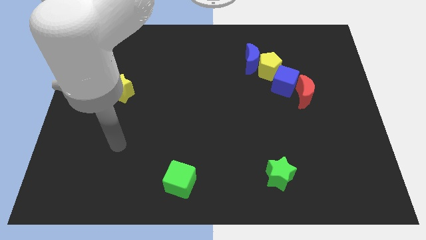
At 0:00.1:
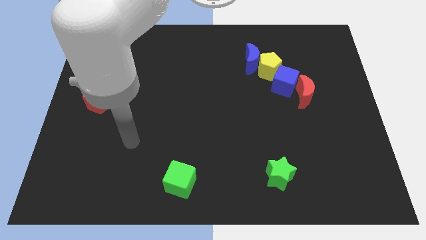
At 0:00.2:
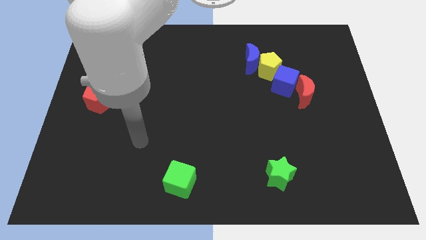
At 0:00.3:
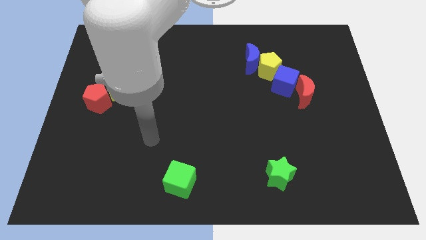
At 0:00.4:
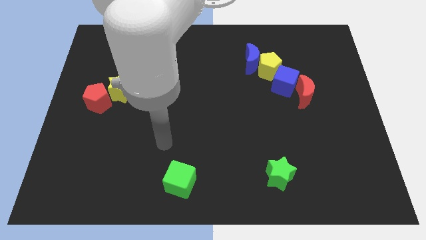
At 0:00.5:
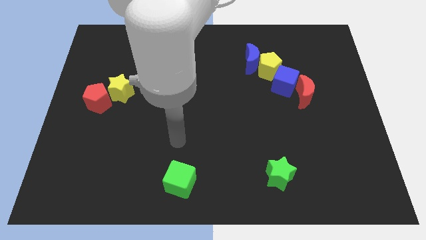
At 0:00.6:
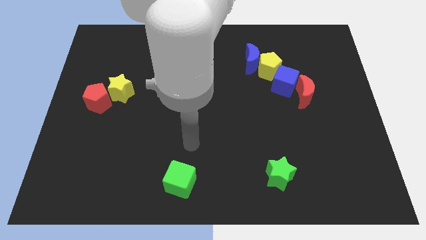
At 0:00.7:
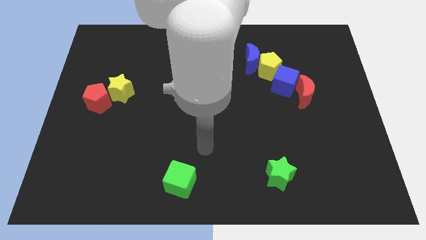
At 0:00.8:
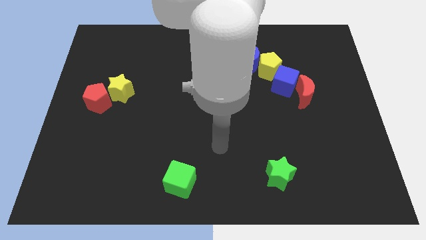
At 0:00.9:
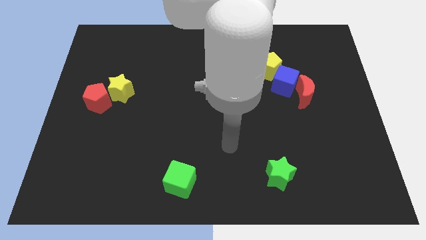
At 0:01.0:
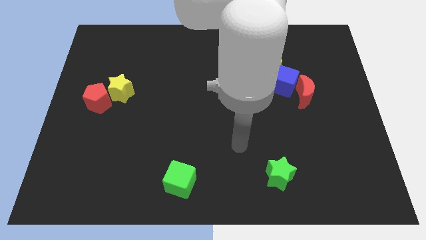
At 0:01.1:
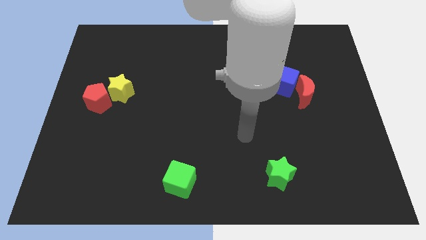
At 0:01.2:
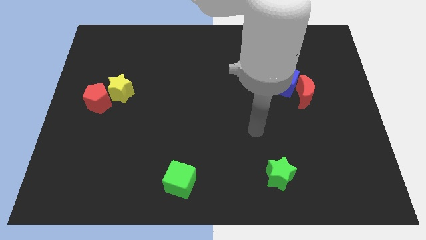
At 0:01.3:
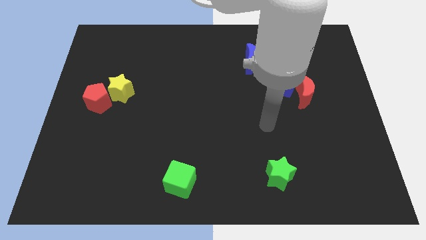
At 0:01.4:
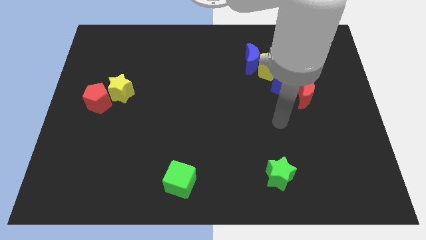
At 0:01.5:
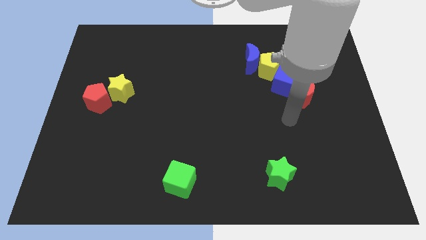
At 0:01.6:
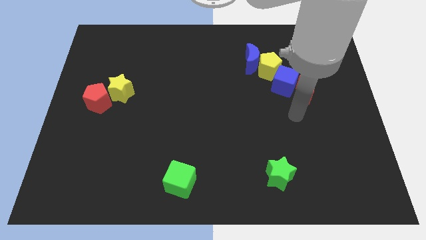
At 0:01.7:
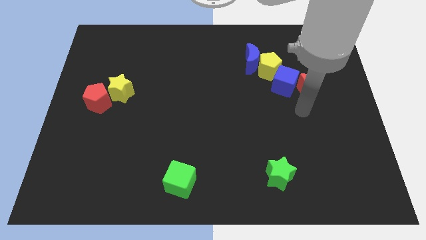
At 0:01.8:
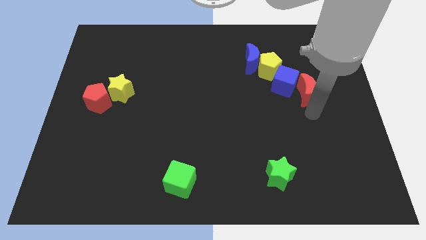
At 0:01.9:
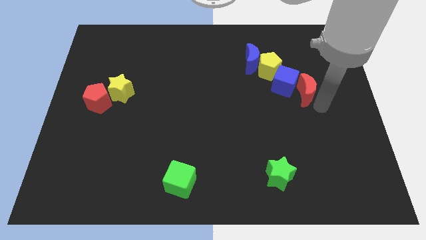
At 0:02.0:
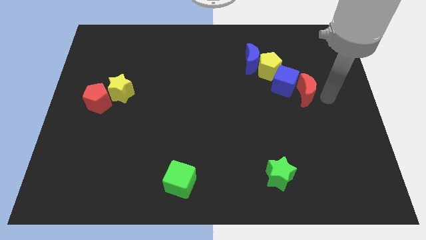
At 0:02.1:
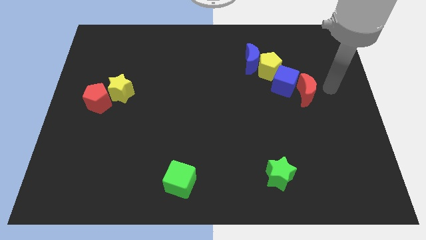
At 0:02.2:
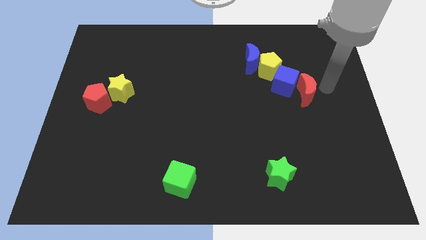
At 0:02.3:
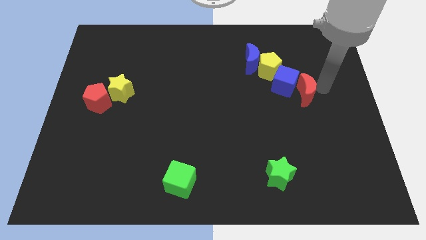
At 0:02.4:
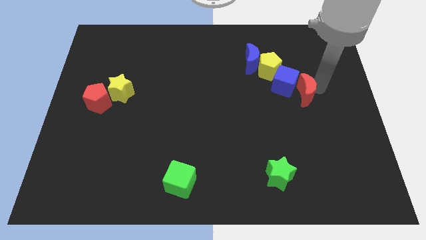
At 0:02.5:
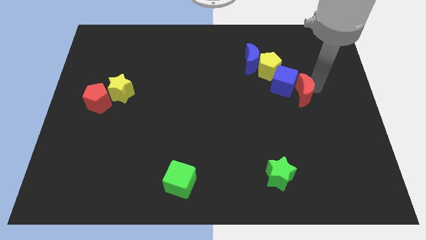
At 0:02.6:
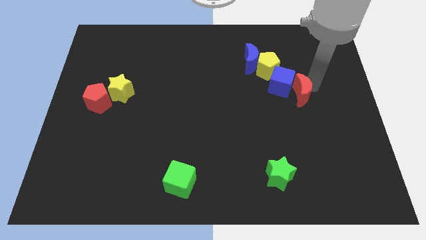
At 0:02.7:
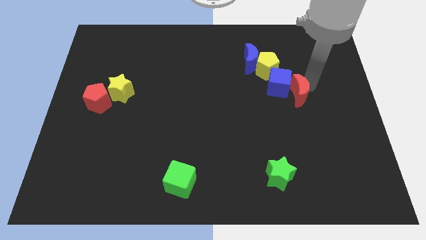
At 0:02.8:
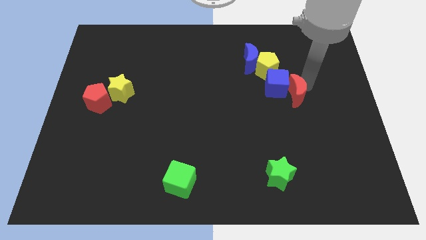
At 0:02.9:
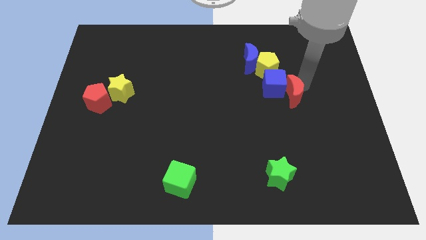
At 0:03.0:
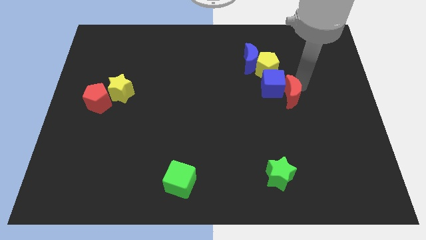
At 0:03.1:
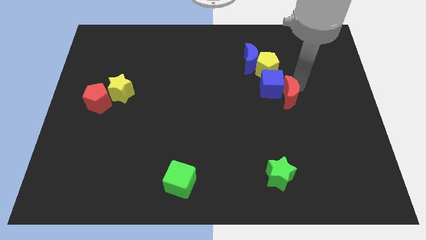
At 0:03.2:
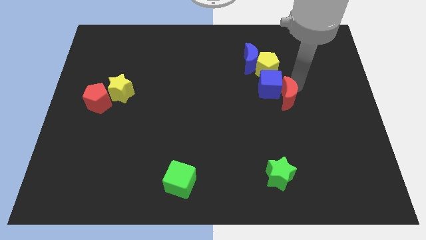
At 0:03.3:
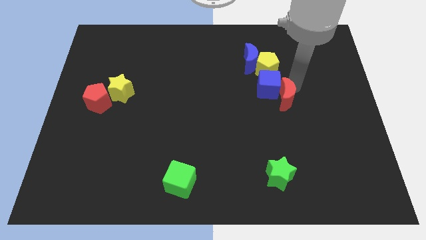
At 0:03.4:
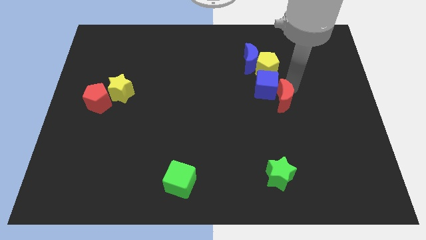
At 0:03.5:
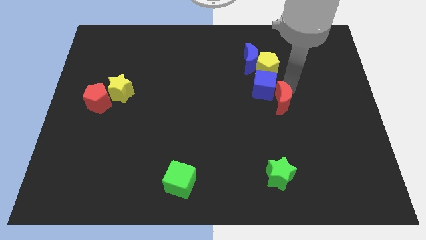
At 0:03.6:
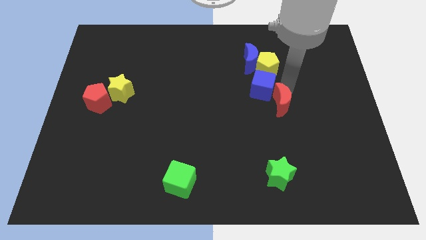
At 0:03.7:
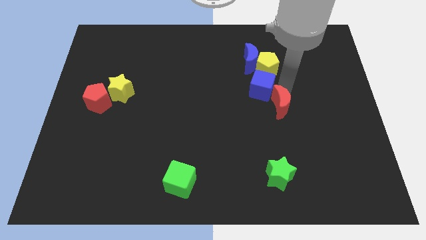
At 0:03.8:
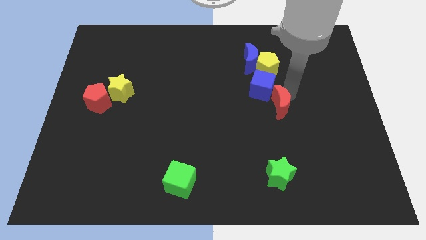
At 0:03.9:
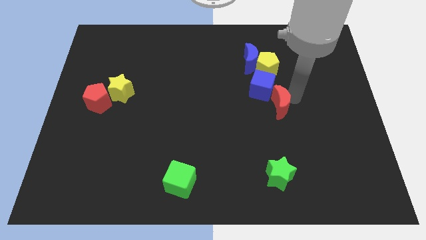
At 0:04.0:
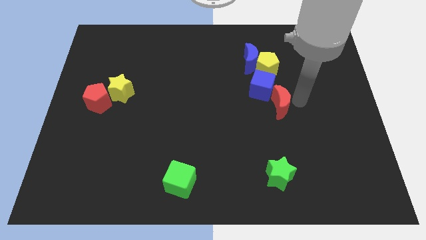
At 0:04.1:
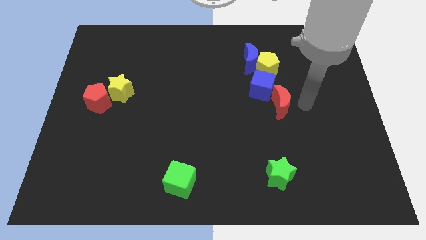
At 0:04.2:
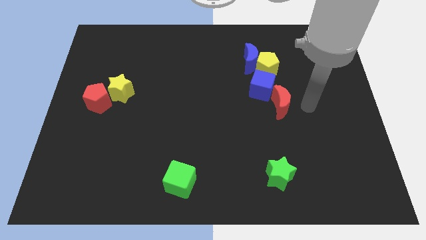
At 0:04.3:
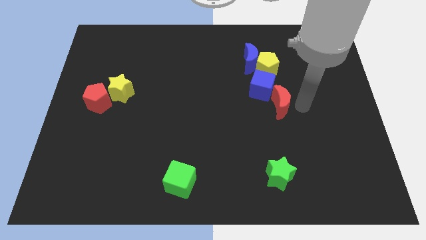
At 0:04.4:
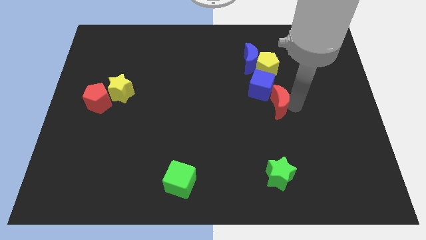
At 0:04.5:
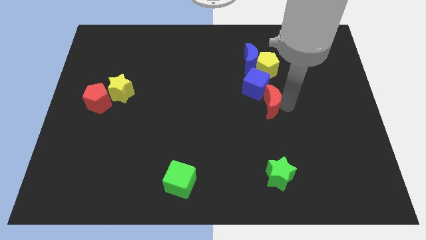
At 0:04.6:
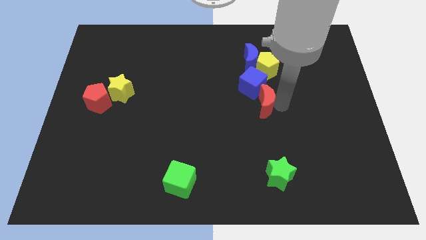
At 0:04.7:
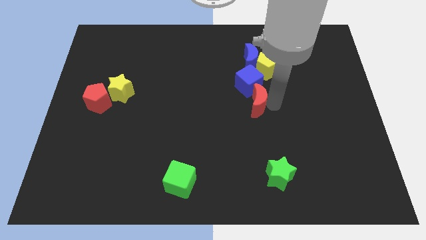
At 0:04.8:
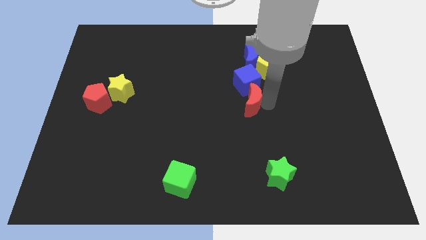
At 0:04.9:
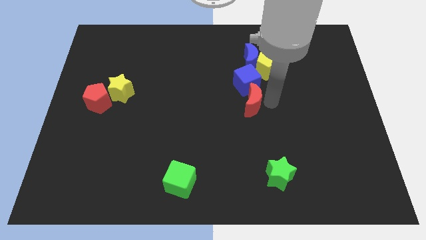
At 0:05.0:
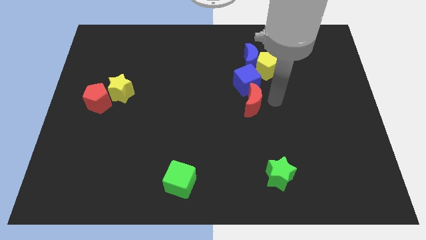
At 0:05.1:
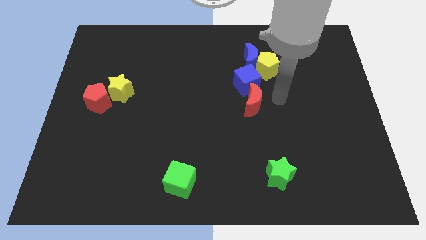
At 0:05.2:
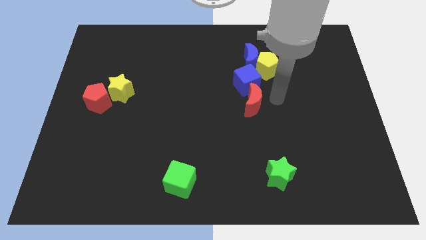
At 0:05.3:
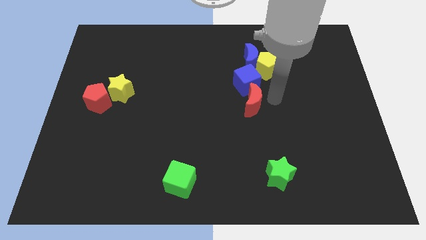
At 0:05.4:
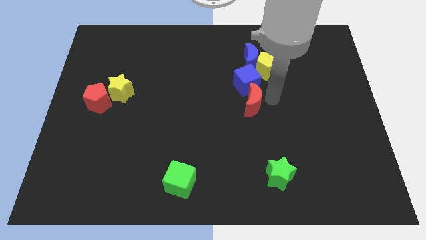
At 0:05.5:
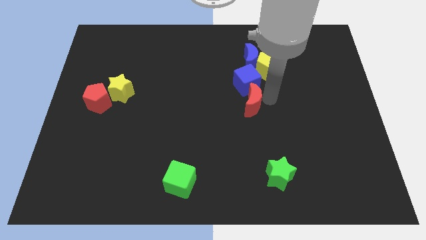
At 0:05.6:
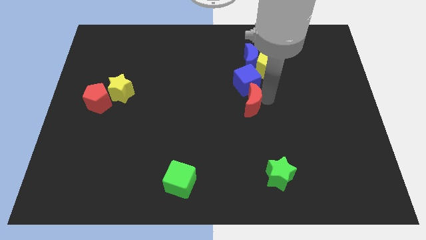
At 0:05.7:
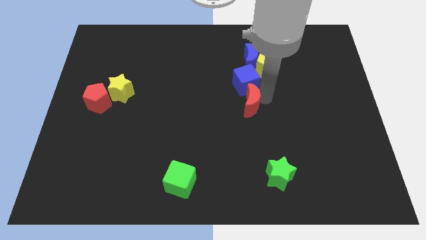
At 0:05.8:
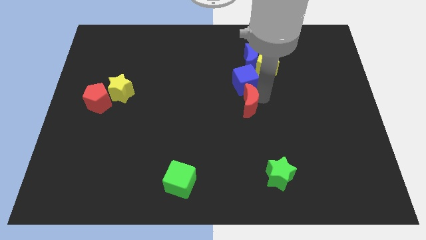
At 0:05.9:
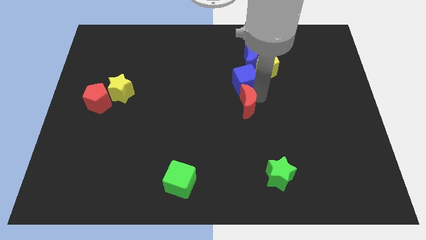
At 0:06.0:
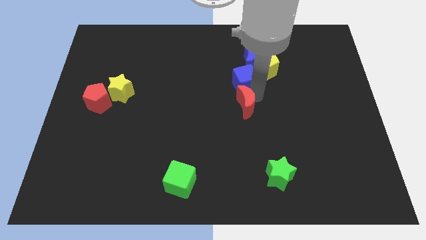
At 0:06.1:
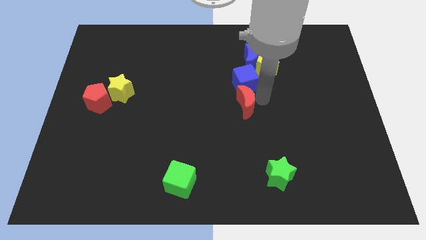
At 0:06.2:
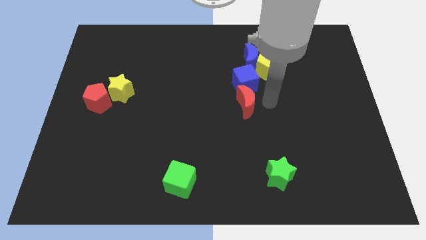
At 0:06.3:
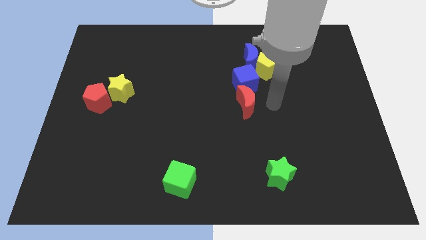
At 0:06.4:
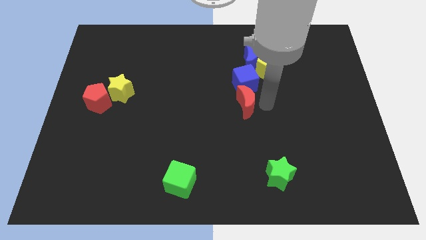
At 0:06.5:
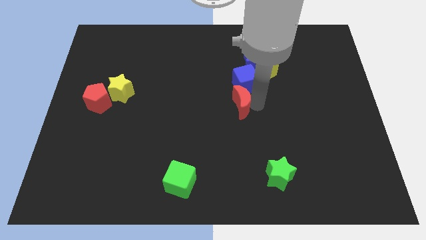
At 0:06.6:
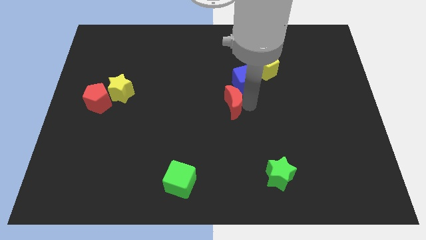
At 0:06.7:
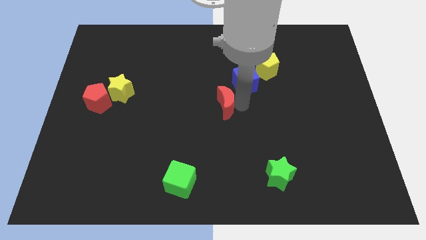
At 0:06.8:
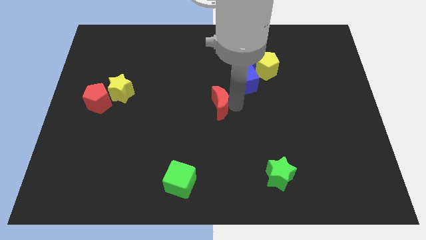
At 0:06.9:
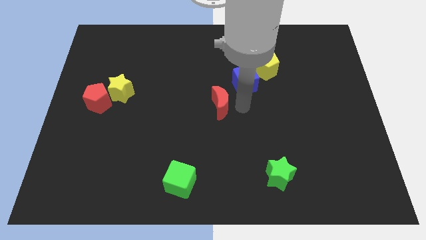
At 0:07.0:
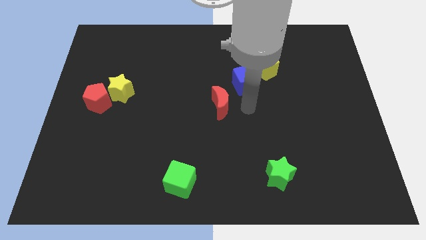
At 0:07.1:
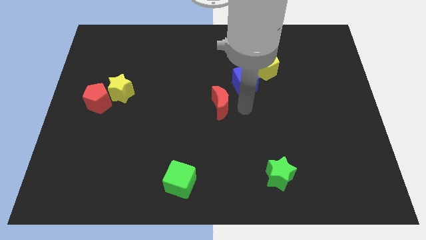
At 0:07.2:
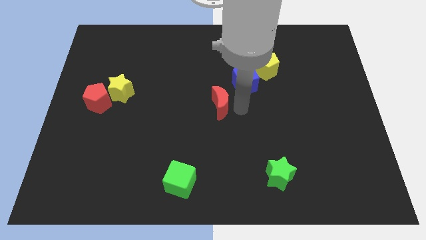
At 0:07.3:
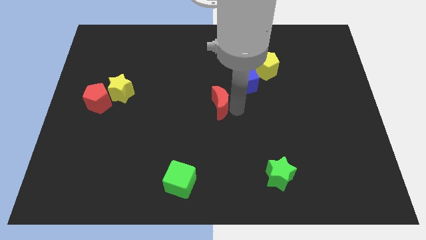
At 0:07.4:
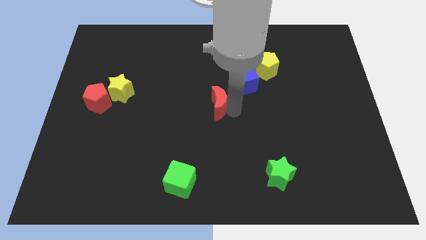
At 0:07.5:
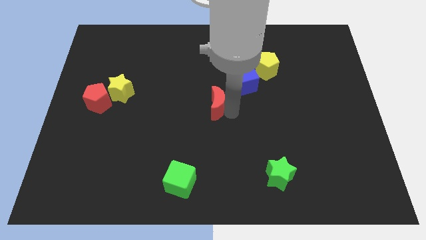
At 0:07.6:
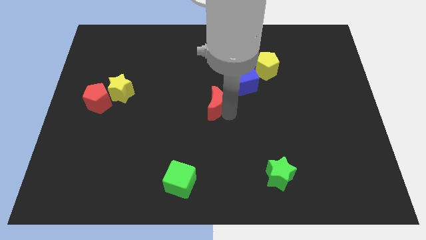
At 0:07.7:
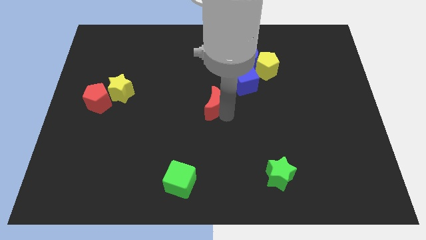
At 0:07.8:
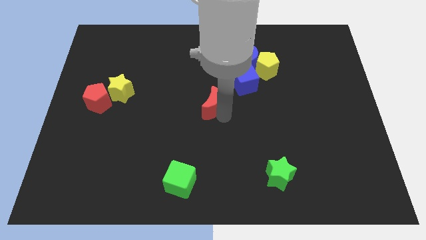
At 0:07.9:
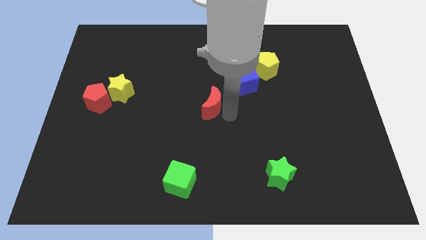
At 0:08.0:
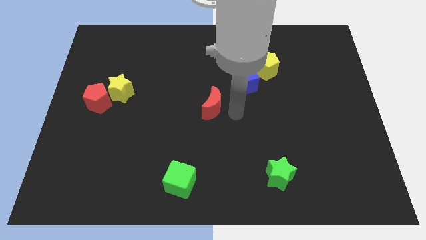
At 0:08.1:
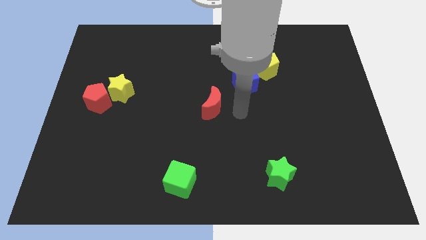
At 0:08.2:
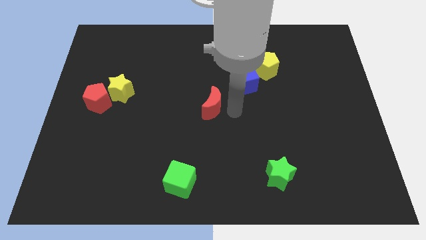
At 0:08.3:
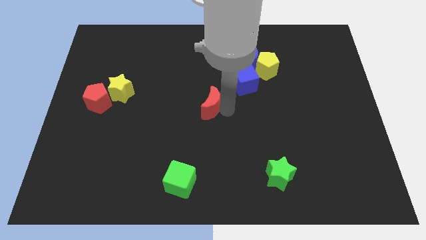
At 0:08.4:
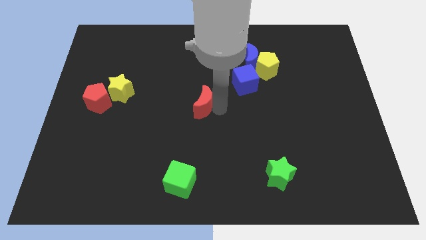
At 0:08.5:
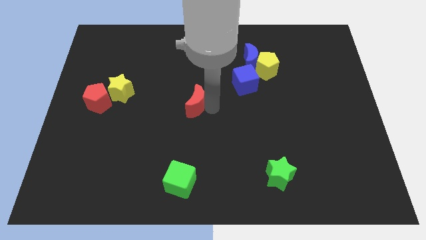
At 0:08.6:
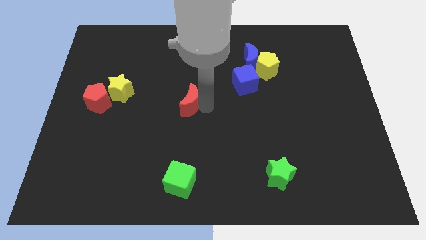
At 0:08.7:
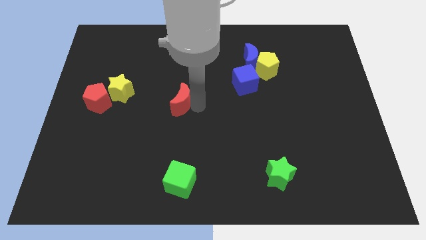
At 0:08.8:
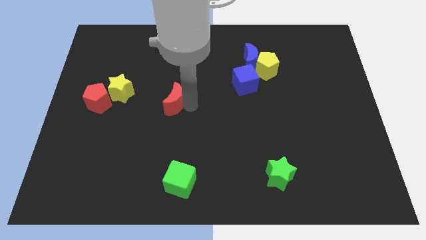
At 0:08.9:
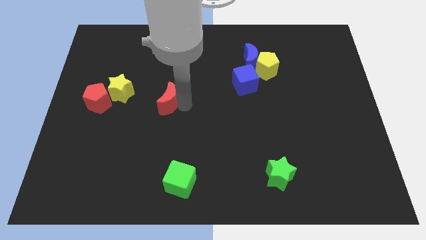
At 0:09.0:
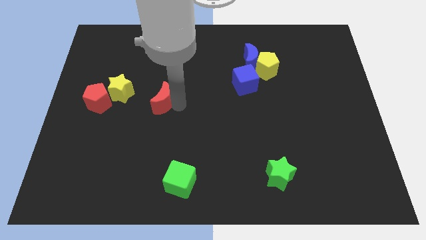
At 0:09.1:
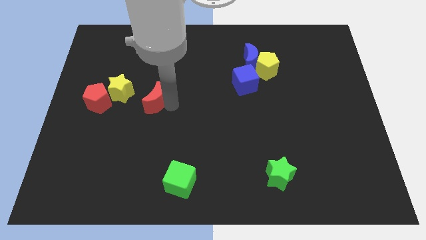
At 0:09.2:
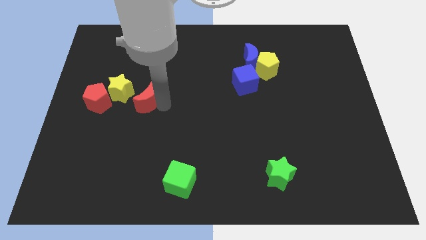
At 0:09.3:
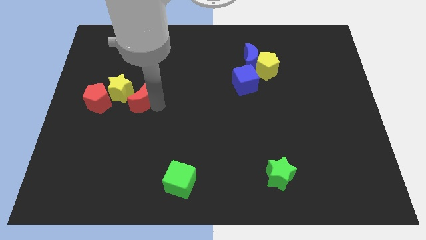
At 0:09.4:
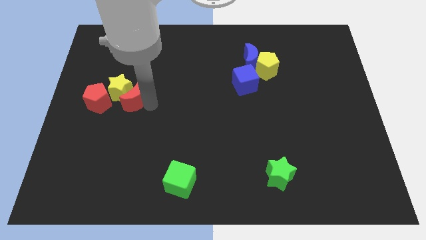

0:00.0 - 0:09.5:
put the red moon to the yellow star
